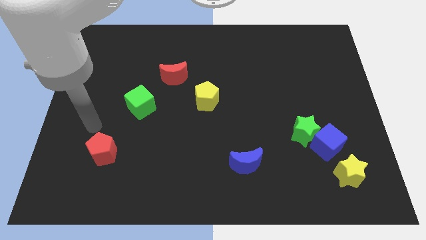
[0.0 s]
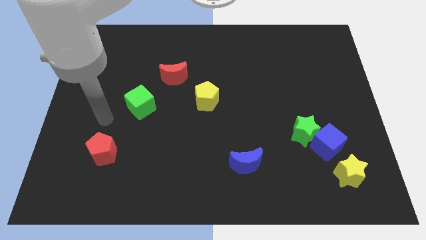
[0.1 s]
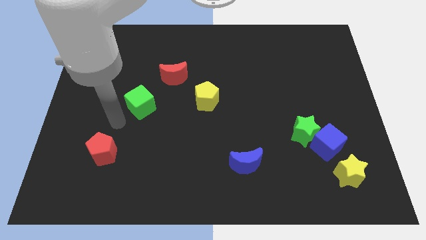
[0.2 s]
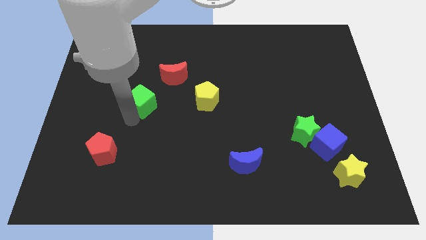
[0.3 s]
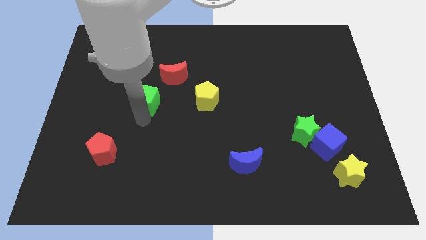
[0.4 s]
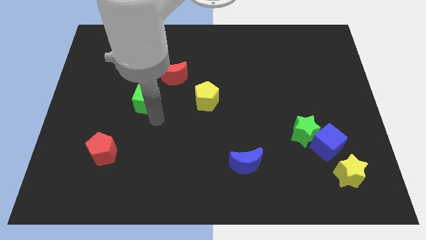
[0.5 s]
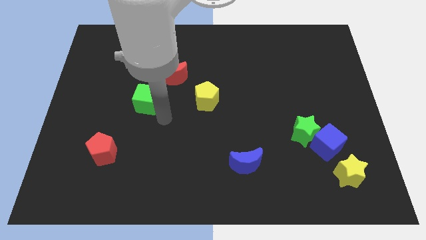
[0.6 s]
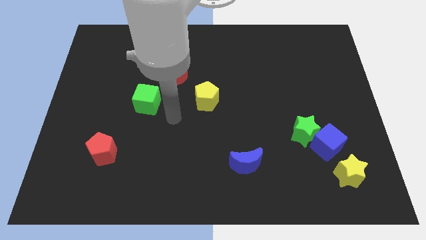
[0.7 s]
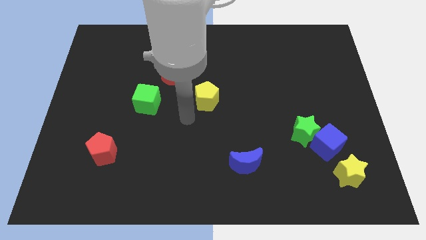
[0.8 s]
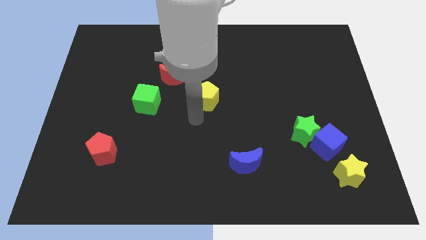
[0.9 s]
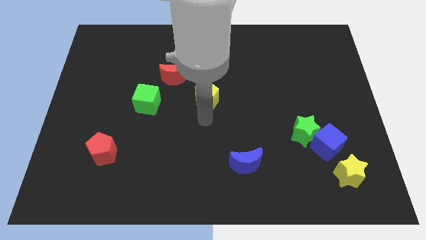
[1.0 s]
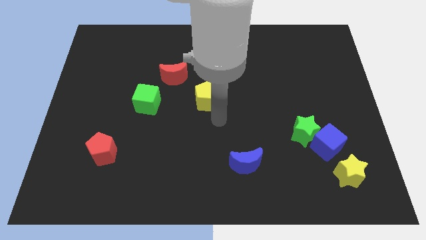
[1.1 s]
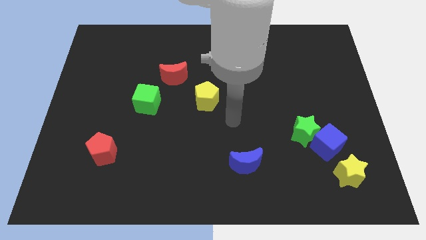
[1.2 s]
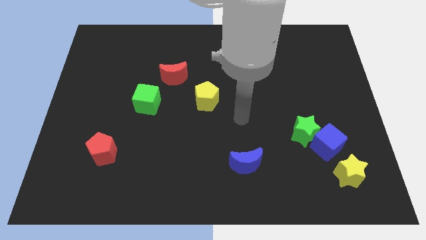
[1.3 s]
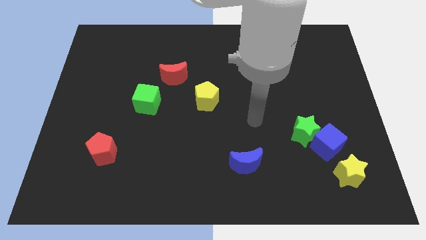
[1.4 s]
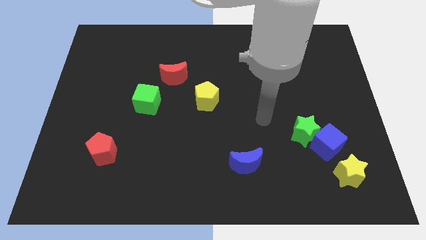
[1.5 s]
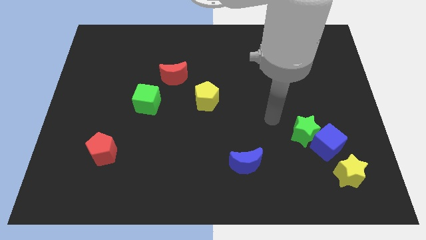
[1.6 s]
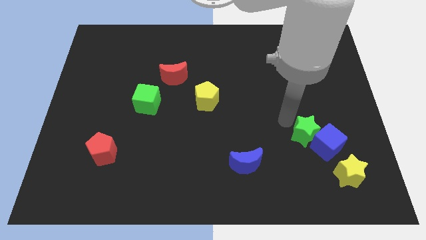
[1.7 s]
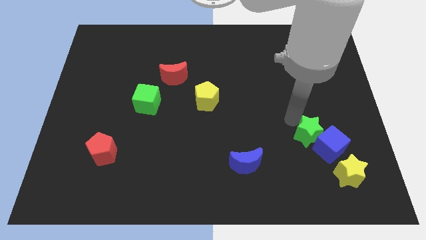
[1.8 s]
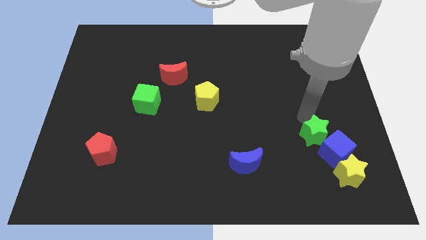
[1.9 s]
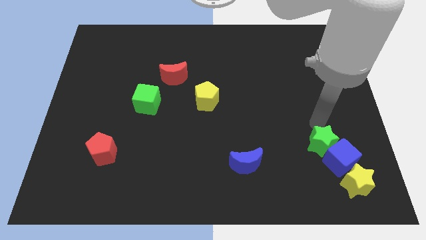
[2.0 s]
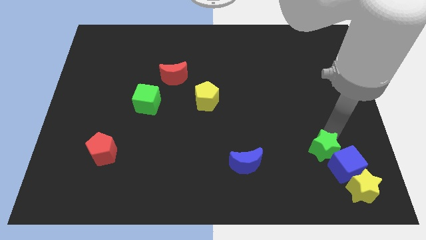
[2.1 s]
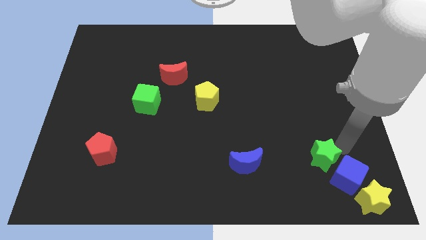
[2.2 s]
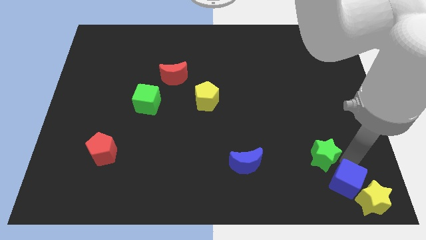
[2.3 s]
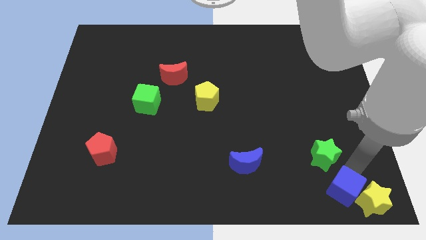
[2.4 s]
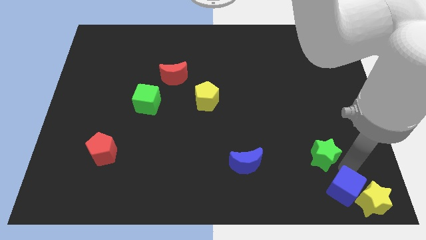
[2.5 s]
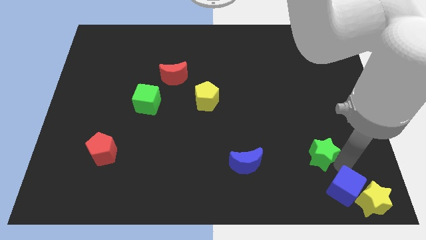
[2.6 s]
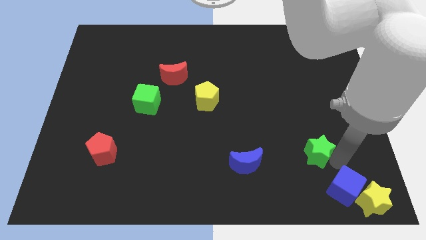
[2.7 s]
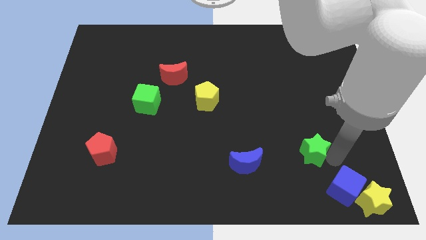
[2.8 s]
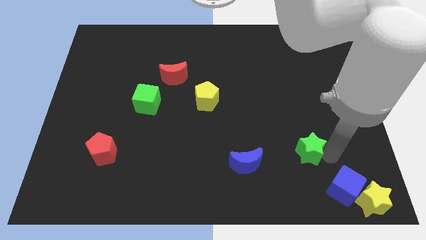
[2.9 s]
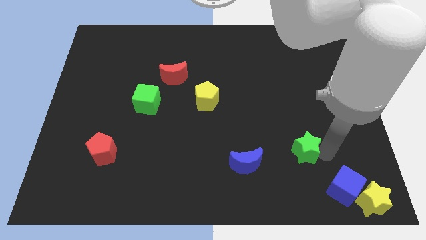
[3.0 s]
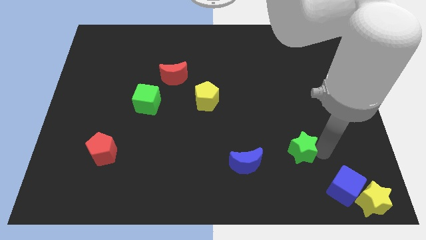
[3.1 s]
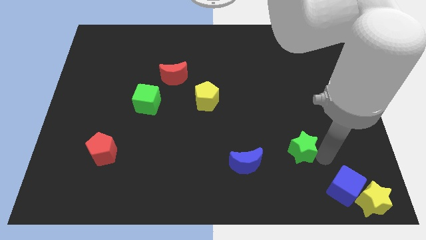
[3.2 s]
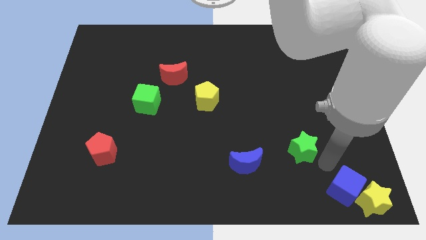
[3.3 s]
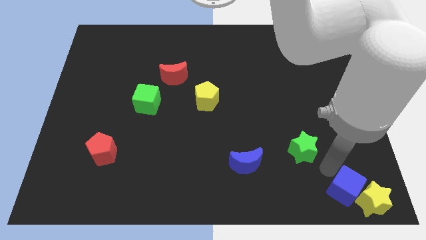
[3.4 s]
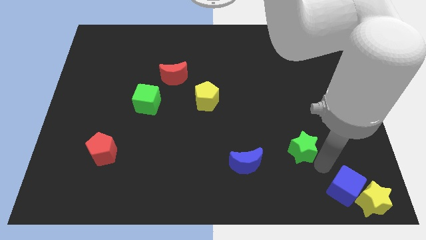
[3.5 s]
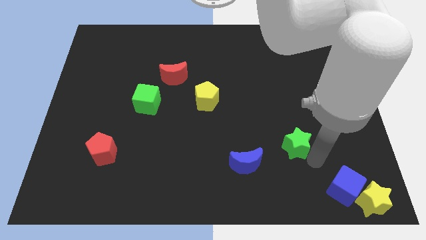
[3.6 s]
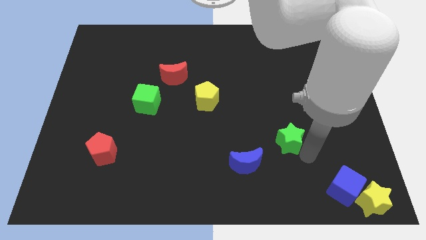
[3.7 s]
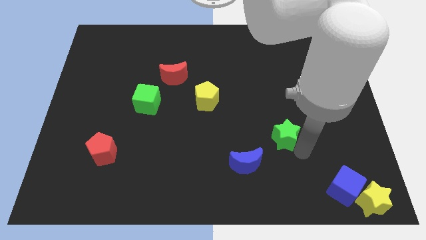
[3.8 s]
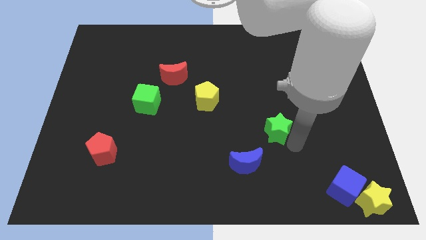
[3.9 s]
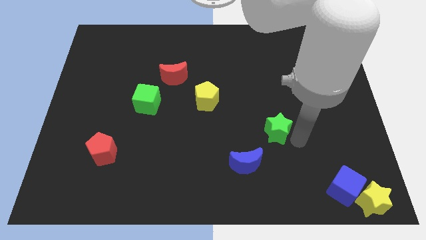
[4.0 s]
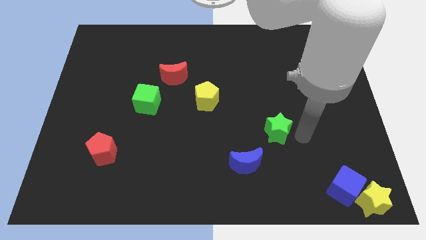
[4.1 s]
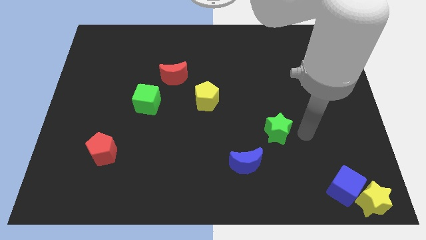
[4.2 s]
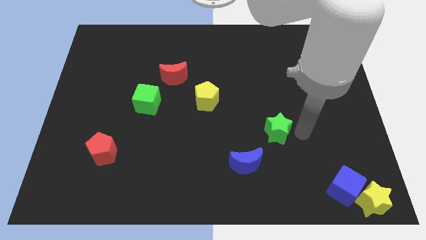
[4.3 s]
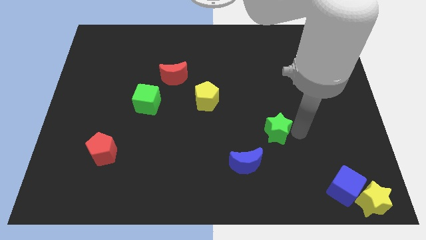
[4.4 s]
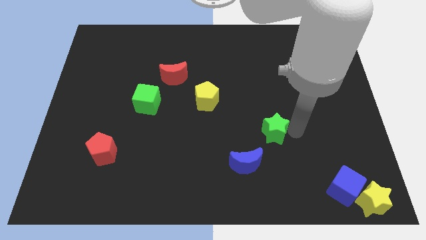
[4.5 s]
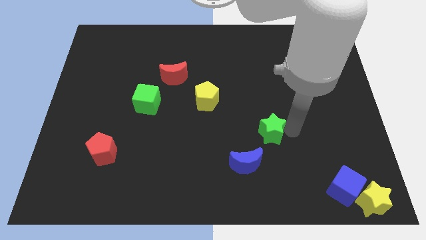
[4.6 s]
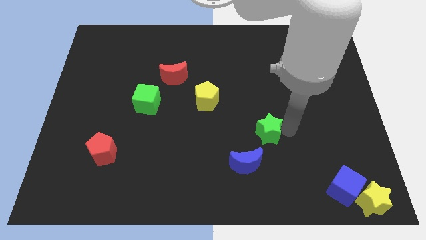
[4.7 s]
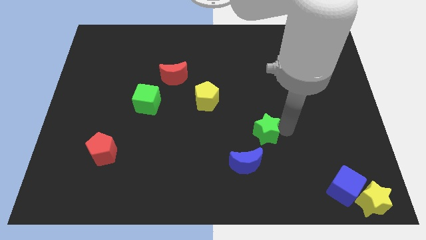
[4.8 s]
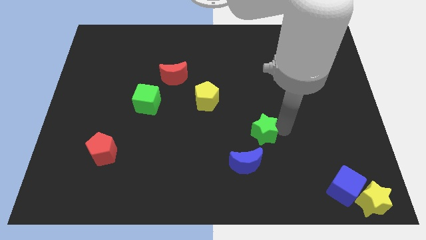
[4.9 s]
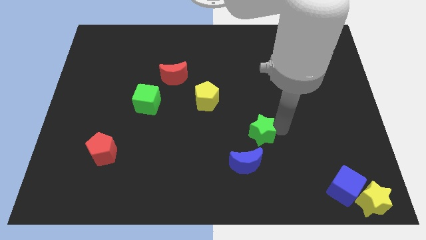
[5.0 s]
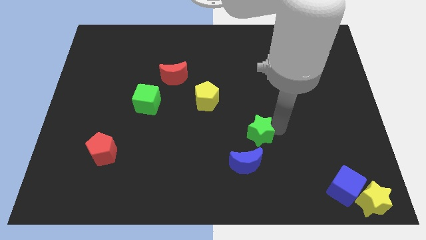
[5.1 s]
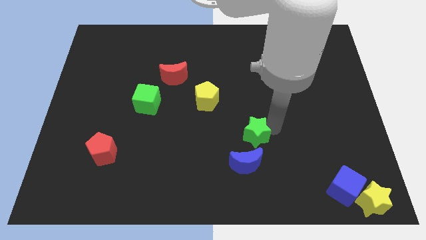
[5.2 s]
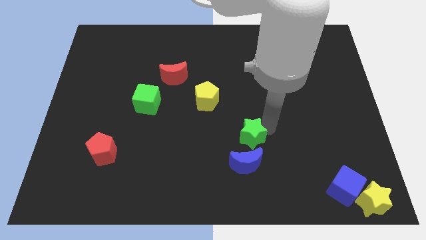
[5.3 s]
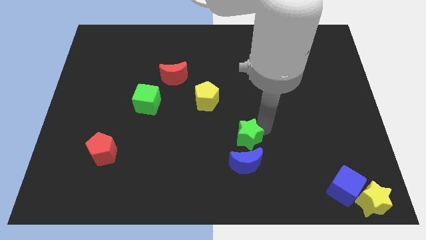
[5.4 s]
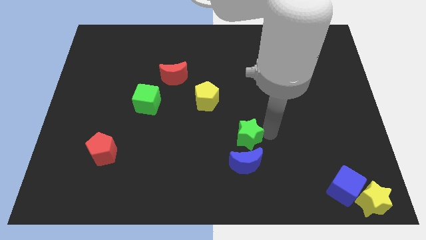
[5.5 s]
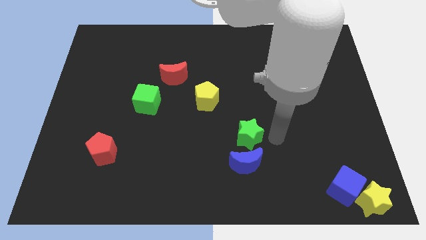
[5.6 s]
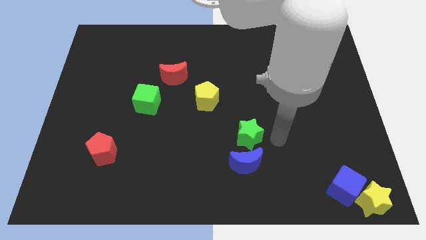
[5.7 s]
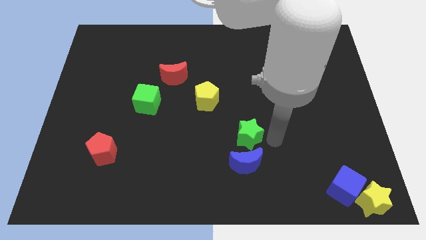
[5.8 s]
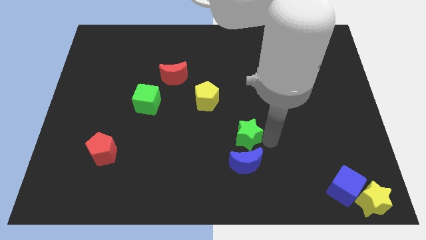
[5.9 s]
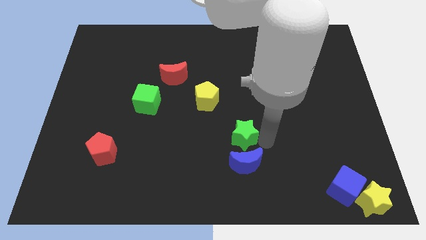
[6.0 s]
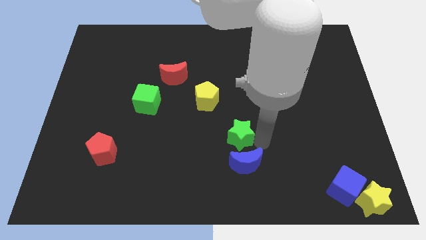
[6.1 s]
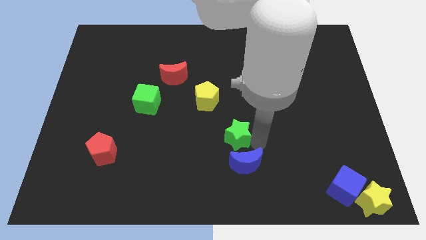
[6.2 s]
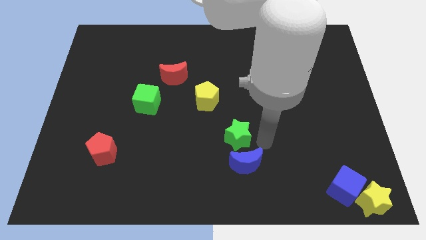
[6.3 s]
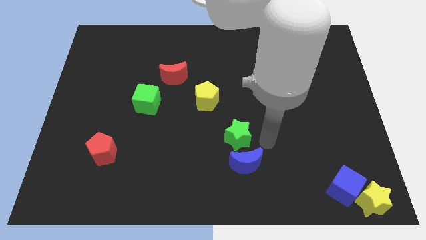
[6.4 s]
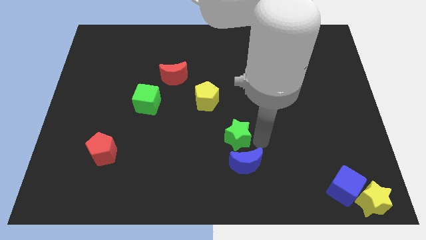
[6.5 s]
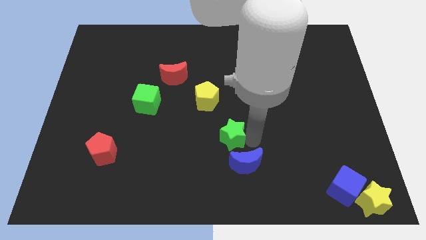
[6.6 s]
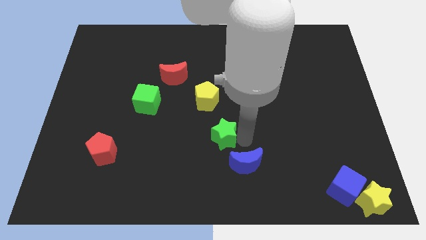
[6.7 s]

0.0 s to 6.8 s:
push the green star to the bottom side of the yellow pentagon

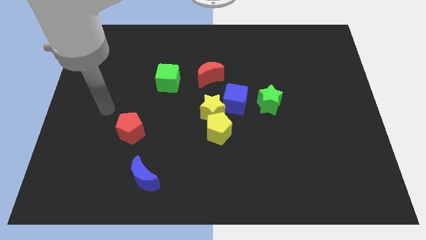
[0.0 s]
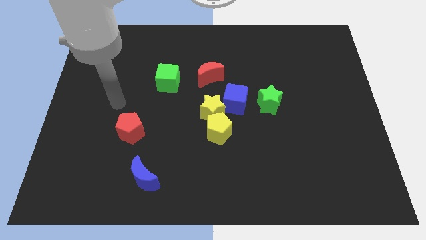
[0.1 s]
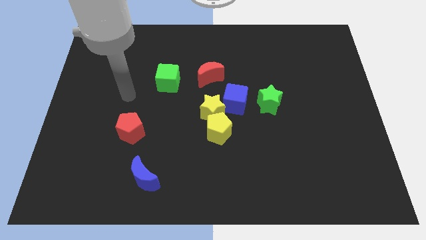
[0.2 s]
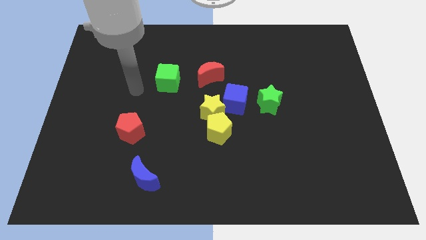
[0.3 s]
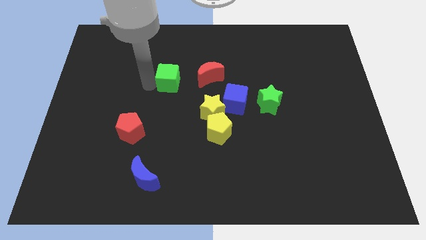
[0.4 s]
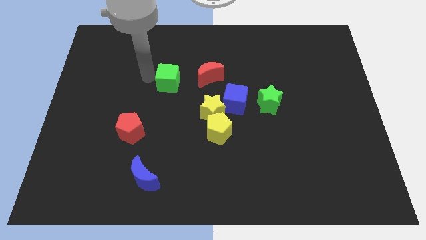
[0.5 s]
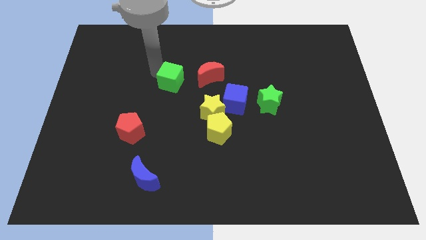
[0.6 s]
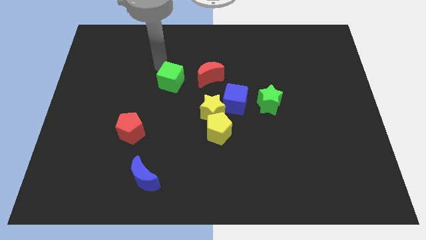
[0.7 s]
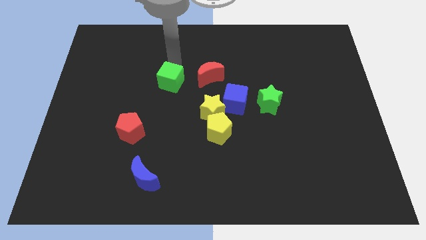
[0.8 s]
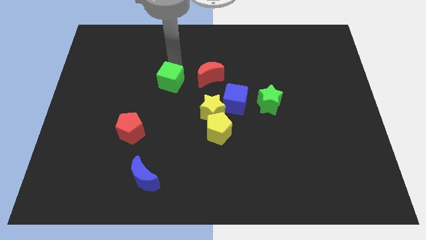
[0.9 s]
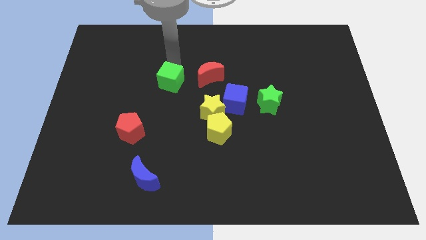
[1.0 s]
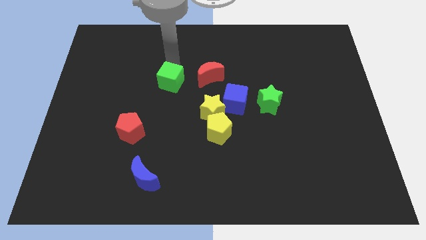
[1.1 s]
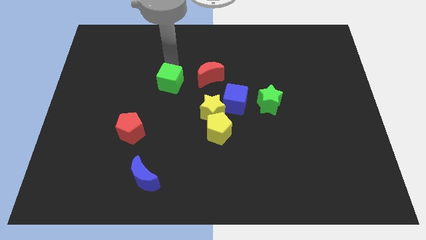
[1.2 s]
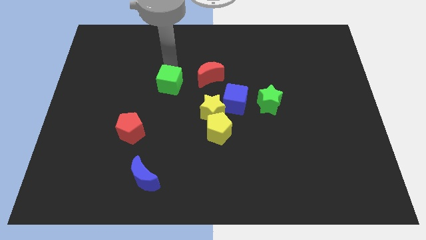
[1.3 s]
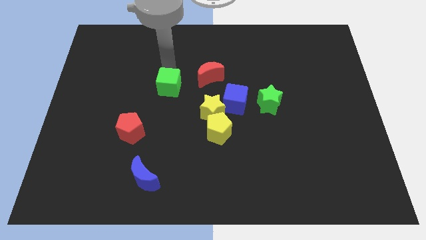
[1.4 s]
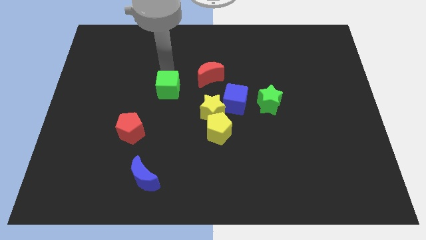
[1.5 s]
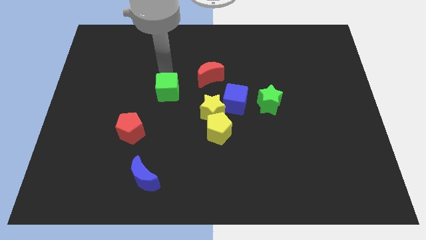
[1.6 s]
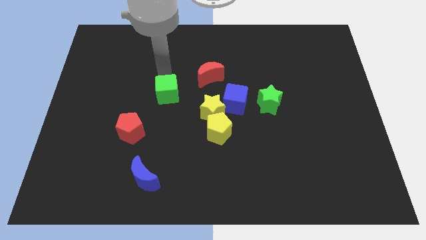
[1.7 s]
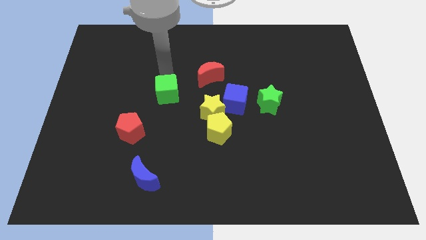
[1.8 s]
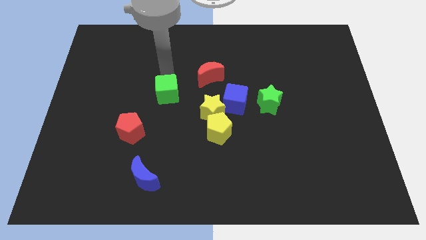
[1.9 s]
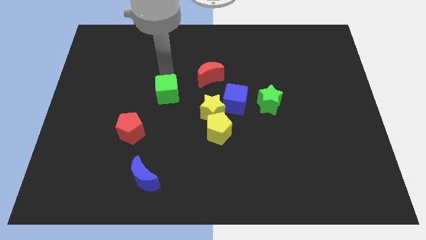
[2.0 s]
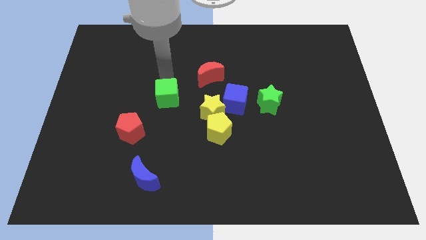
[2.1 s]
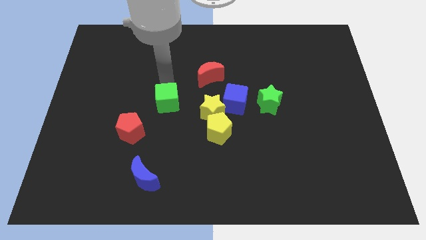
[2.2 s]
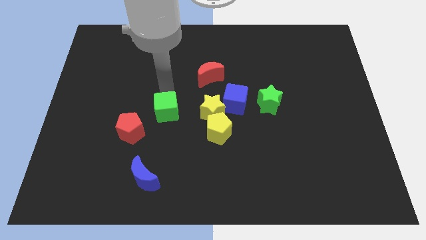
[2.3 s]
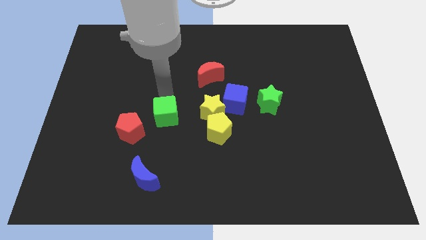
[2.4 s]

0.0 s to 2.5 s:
slide the green cube just left of the yellow pentagon
